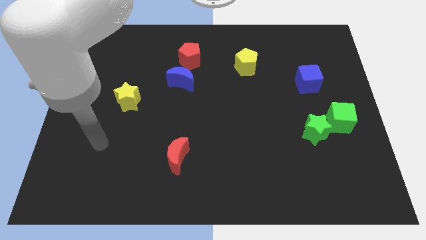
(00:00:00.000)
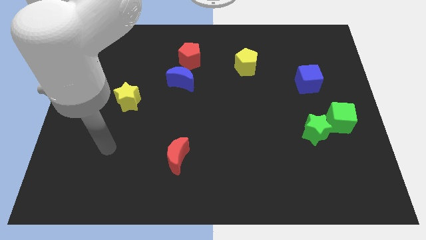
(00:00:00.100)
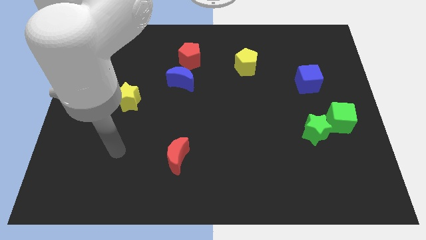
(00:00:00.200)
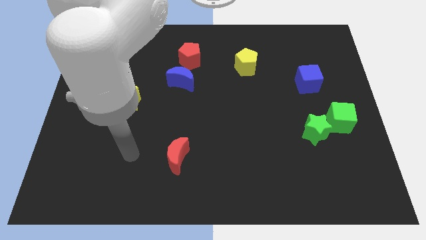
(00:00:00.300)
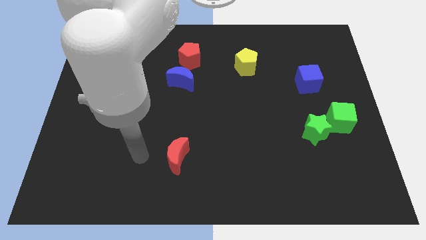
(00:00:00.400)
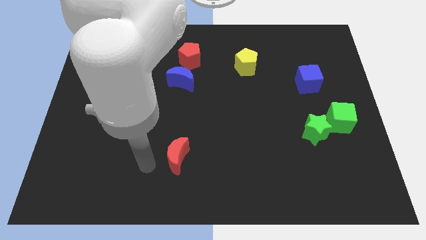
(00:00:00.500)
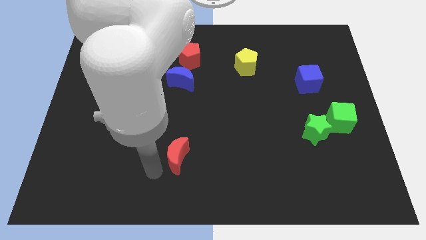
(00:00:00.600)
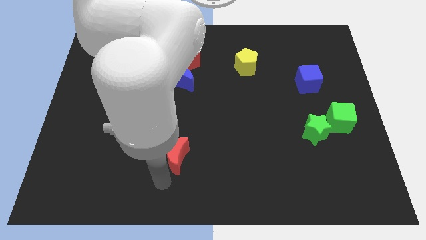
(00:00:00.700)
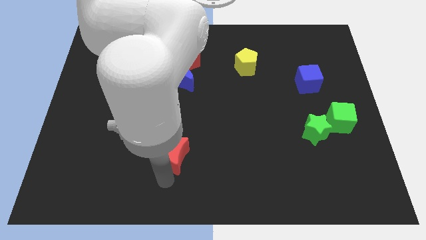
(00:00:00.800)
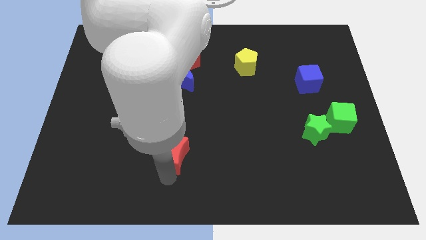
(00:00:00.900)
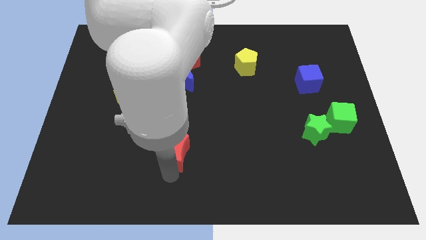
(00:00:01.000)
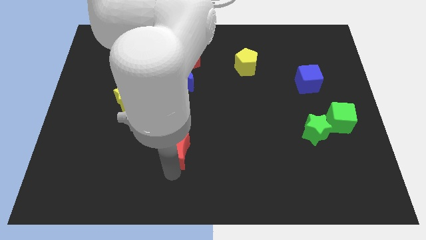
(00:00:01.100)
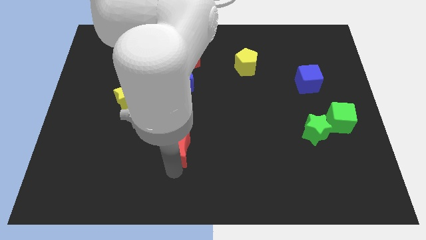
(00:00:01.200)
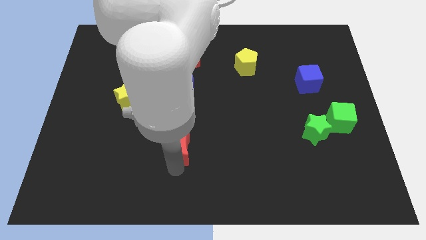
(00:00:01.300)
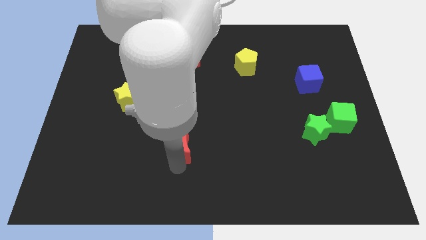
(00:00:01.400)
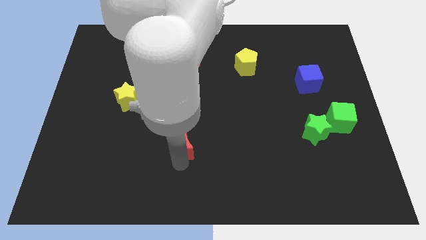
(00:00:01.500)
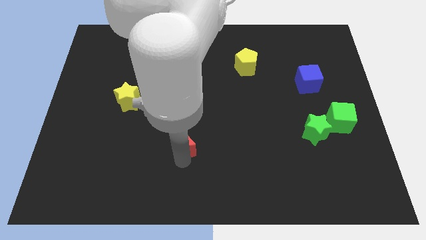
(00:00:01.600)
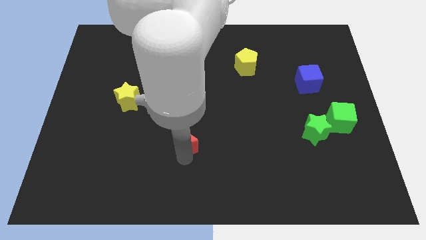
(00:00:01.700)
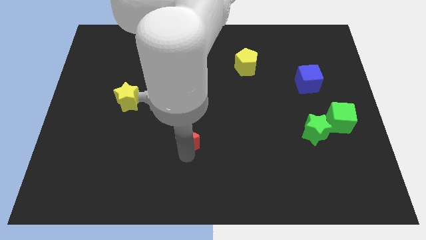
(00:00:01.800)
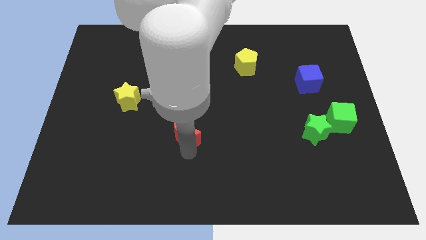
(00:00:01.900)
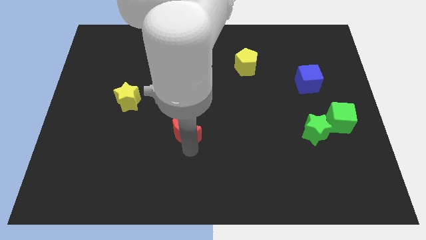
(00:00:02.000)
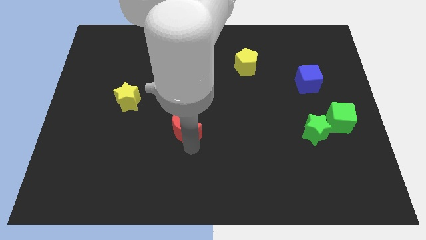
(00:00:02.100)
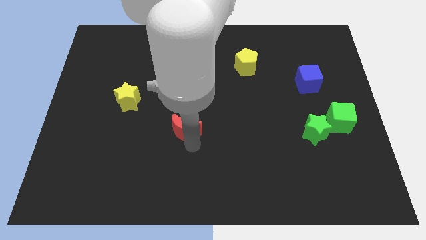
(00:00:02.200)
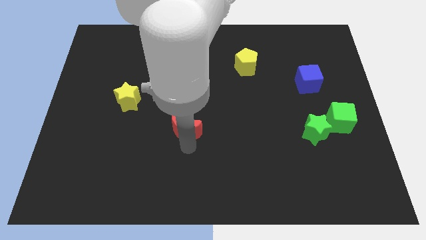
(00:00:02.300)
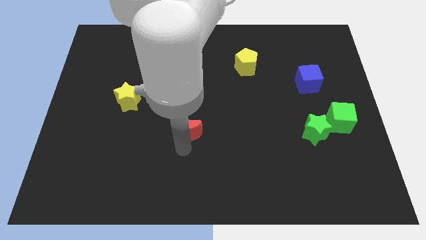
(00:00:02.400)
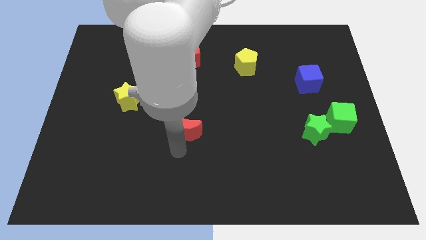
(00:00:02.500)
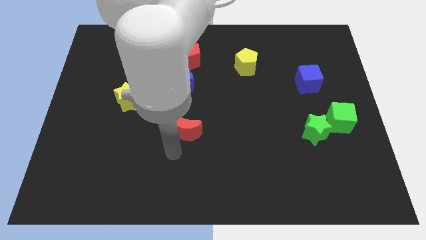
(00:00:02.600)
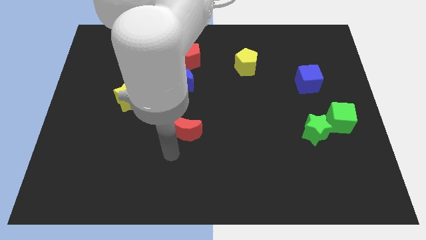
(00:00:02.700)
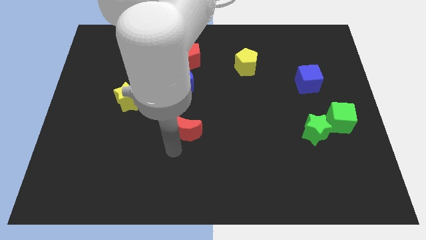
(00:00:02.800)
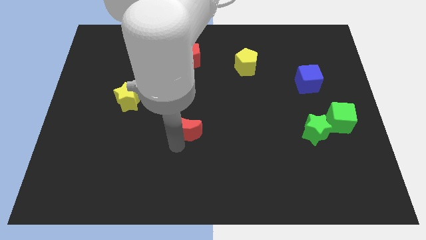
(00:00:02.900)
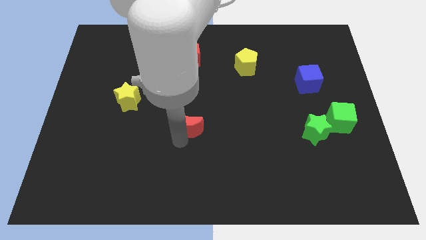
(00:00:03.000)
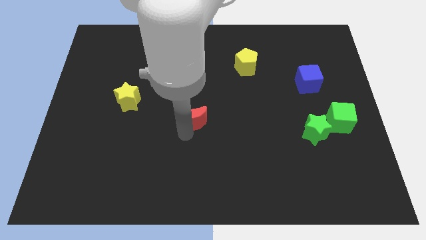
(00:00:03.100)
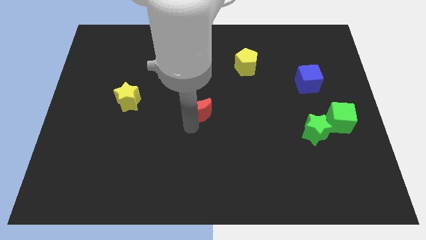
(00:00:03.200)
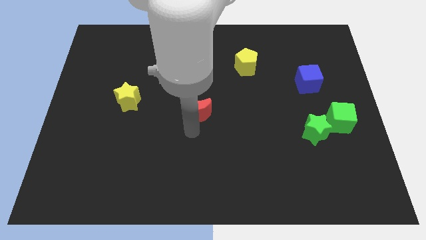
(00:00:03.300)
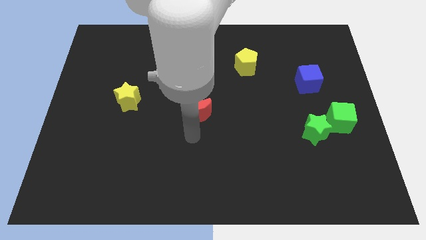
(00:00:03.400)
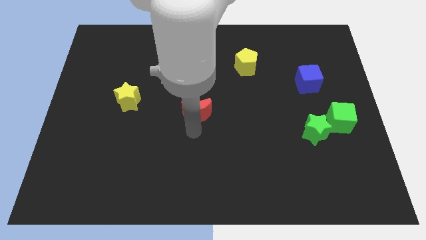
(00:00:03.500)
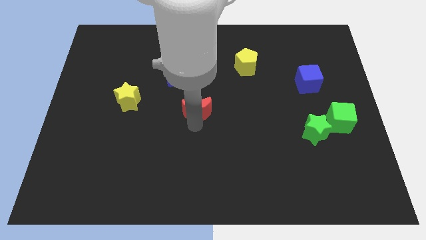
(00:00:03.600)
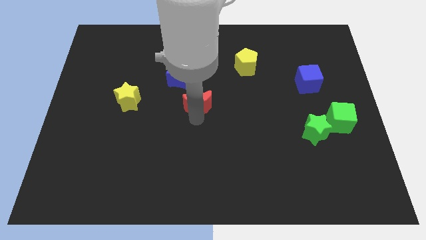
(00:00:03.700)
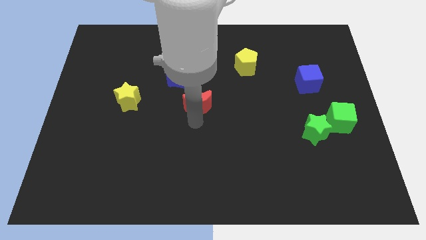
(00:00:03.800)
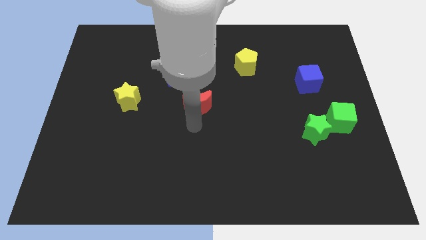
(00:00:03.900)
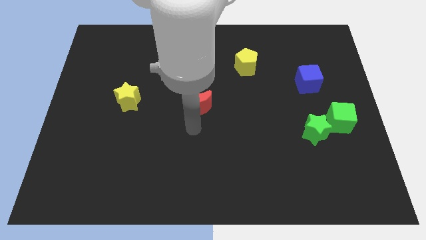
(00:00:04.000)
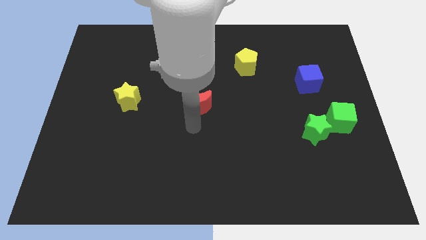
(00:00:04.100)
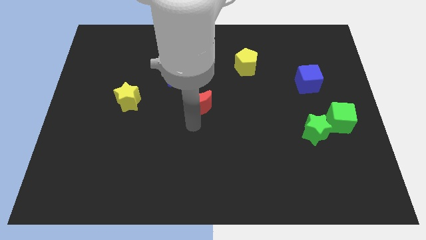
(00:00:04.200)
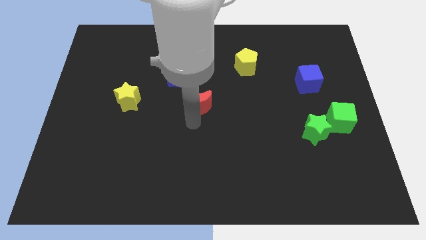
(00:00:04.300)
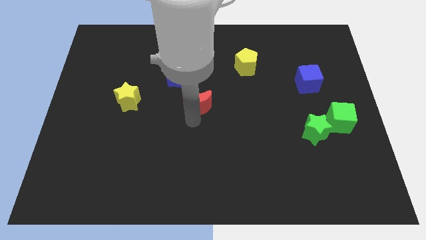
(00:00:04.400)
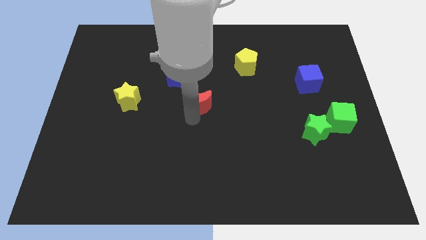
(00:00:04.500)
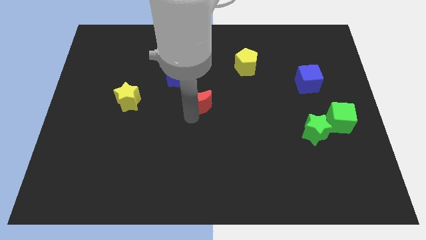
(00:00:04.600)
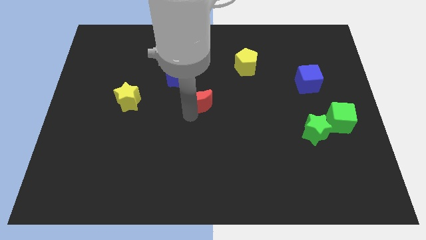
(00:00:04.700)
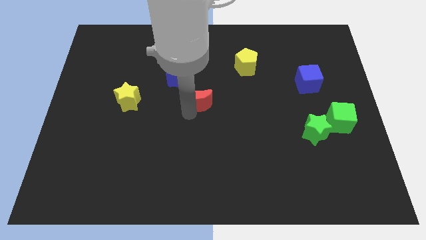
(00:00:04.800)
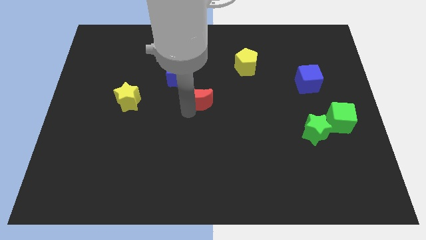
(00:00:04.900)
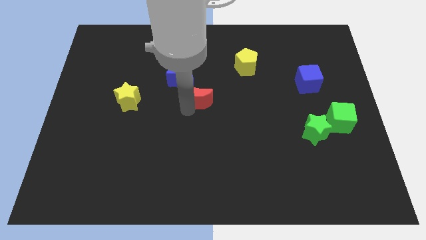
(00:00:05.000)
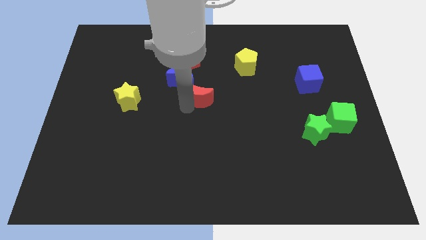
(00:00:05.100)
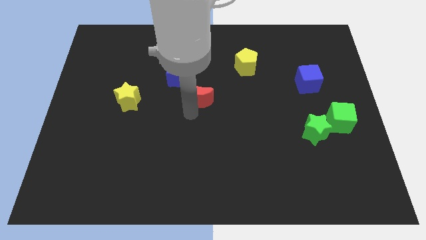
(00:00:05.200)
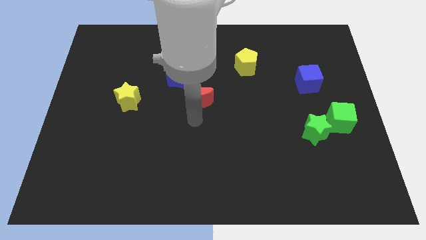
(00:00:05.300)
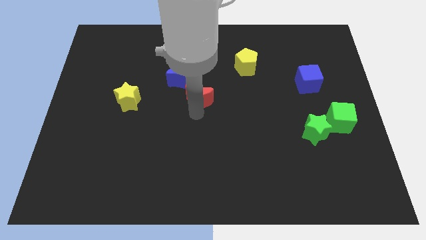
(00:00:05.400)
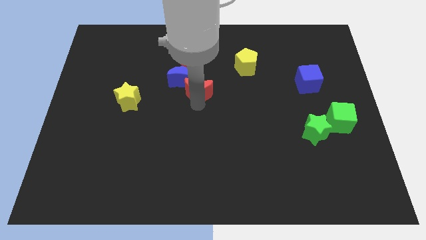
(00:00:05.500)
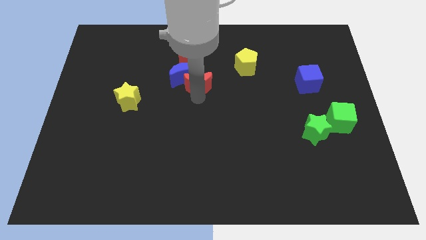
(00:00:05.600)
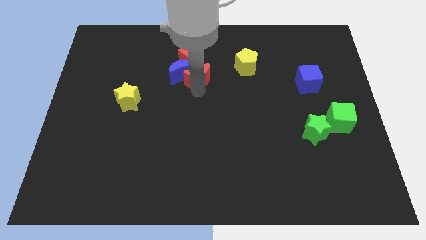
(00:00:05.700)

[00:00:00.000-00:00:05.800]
put the red moon to the top right side of the blue moon

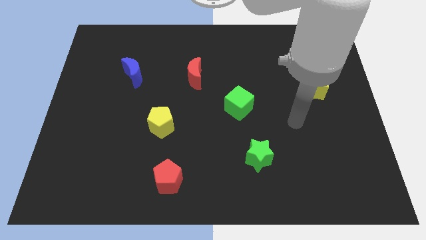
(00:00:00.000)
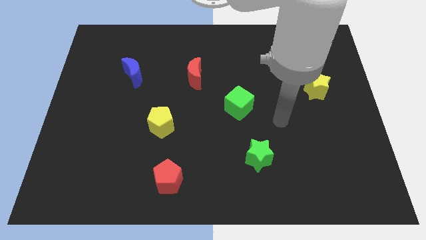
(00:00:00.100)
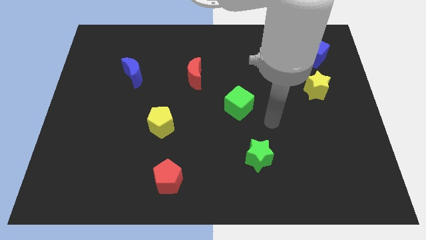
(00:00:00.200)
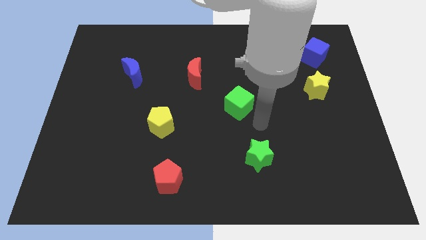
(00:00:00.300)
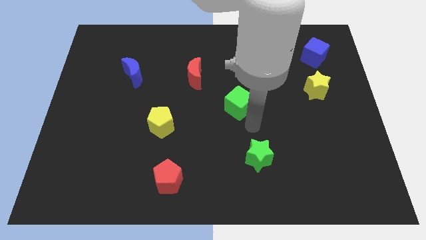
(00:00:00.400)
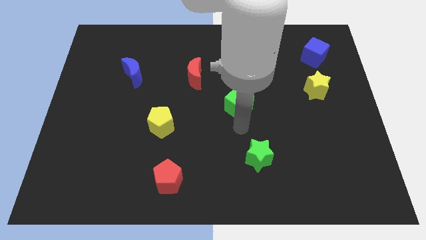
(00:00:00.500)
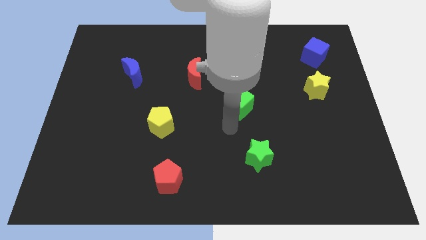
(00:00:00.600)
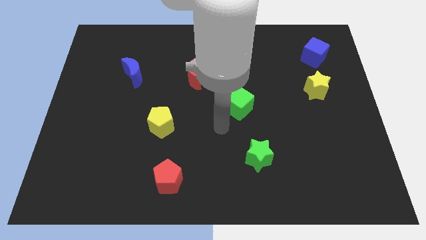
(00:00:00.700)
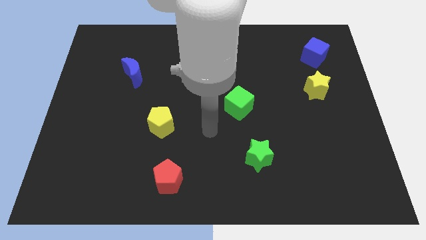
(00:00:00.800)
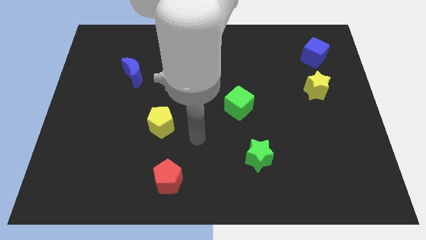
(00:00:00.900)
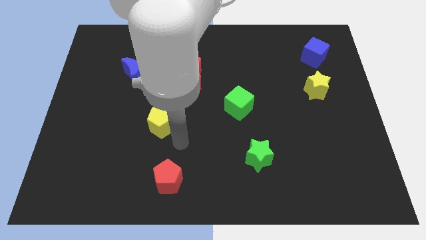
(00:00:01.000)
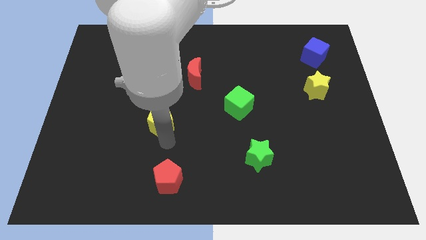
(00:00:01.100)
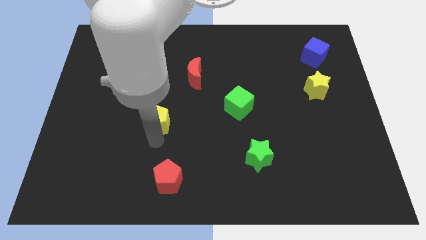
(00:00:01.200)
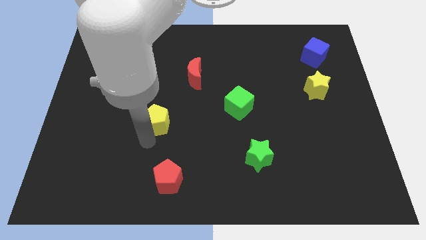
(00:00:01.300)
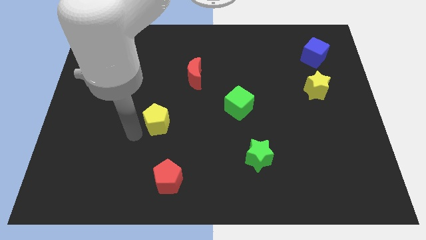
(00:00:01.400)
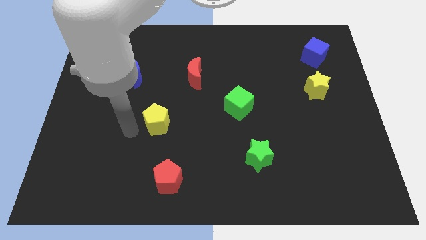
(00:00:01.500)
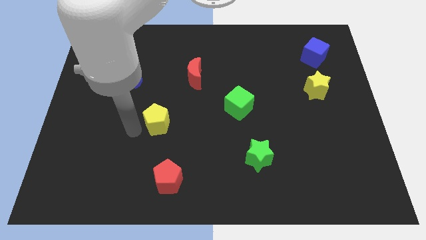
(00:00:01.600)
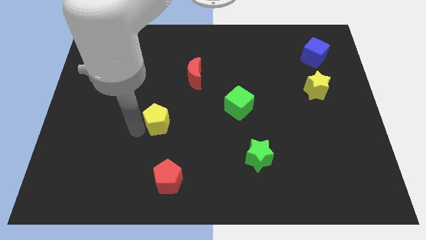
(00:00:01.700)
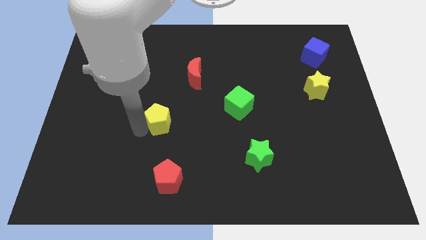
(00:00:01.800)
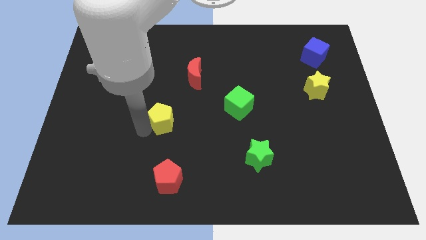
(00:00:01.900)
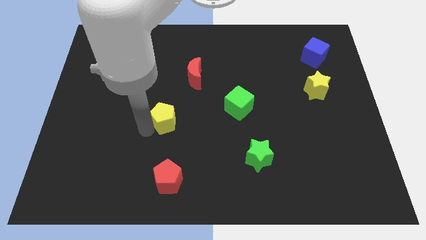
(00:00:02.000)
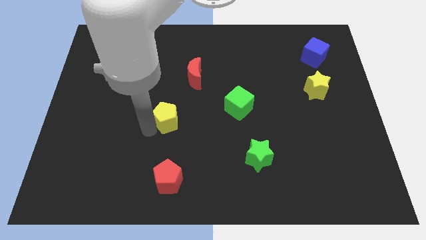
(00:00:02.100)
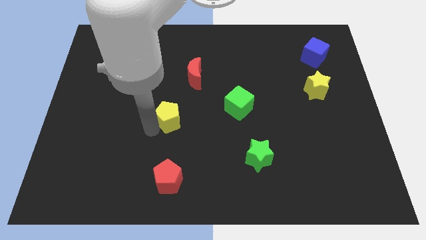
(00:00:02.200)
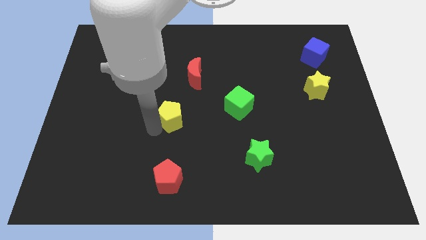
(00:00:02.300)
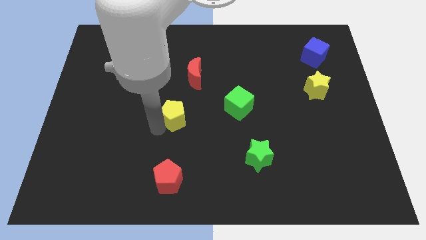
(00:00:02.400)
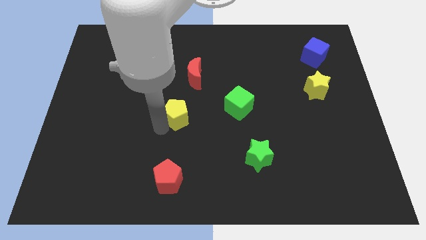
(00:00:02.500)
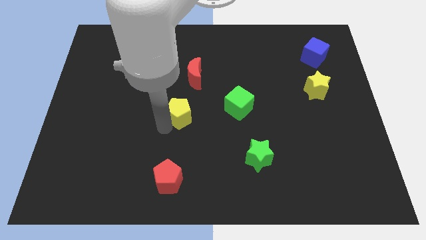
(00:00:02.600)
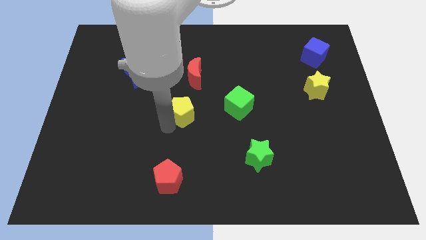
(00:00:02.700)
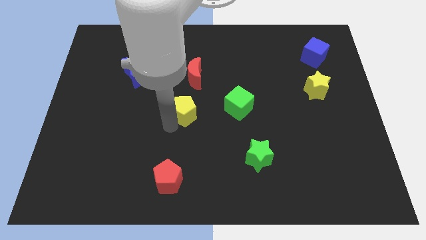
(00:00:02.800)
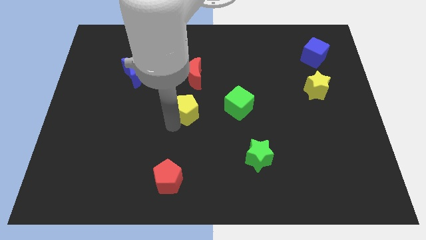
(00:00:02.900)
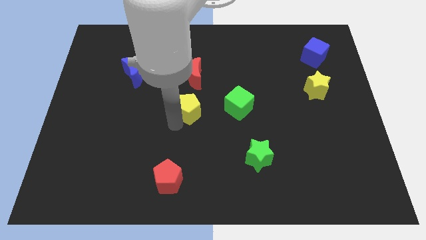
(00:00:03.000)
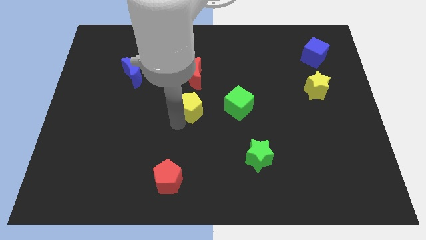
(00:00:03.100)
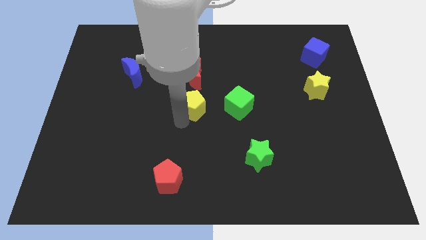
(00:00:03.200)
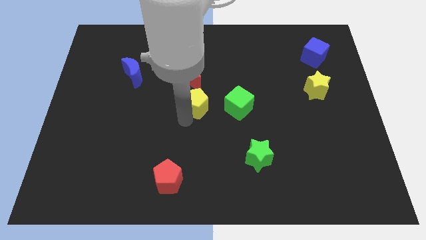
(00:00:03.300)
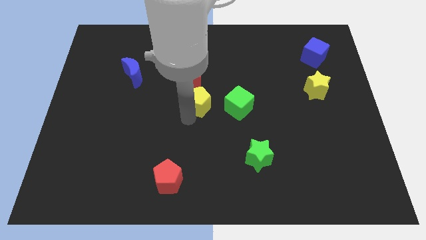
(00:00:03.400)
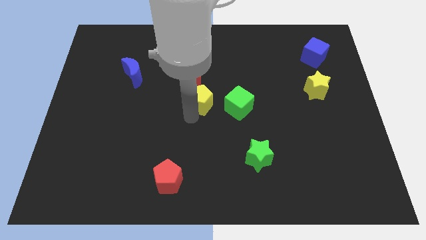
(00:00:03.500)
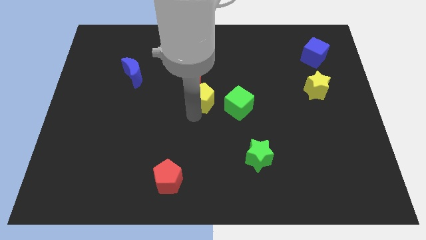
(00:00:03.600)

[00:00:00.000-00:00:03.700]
put the yellow pentagon to the top left side of the green cube
